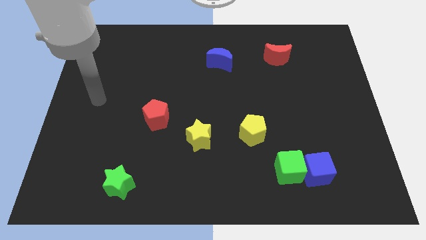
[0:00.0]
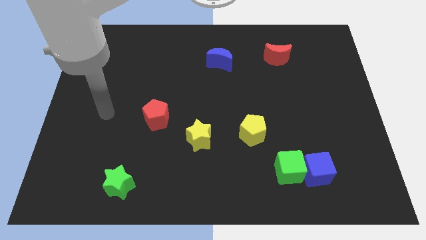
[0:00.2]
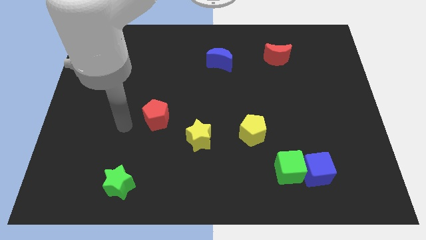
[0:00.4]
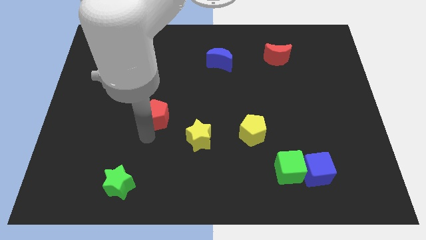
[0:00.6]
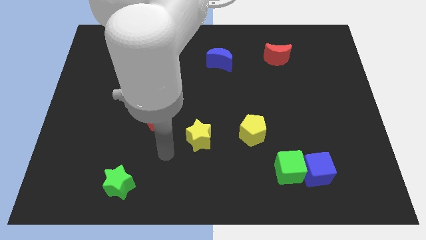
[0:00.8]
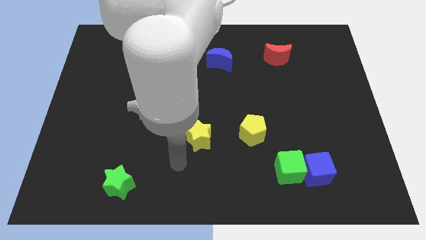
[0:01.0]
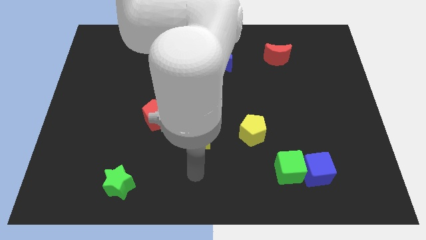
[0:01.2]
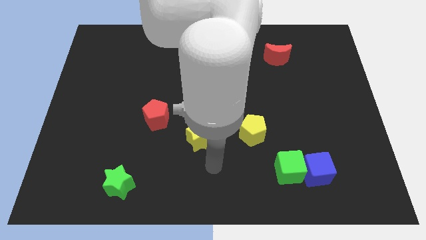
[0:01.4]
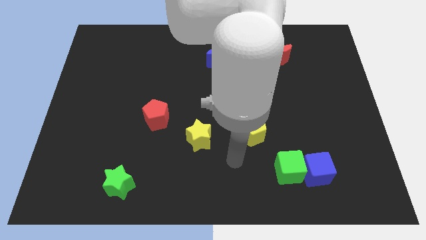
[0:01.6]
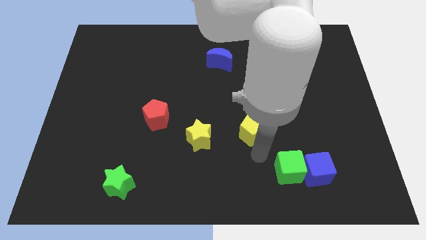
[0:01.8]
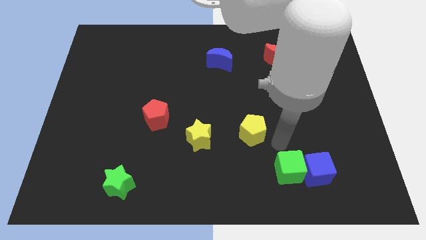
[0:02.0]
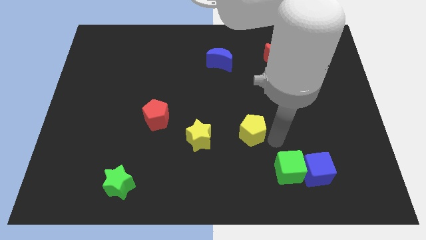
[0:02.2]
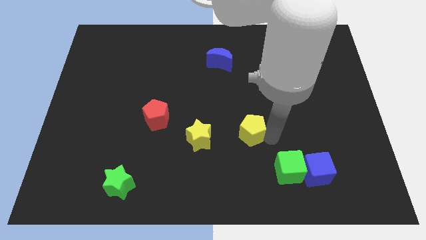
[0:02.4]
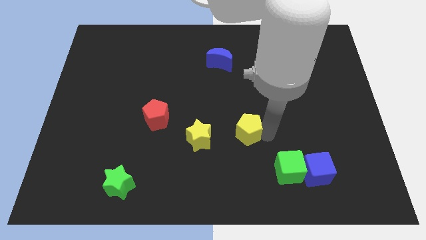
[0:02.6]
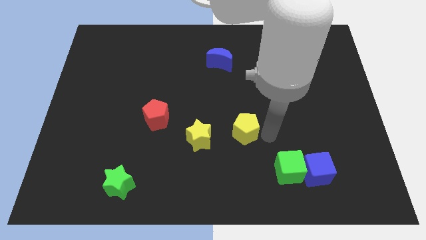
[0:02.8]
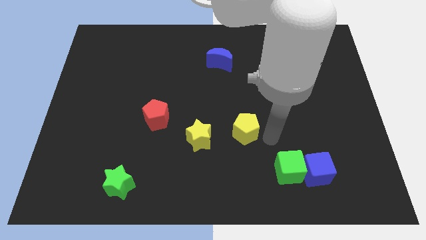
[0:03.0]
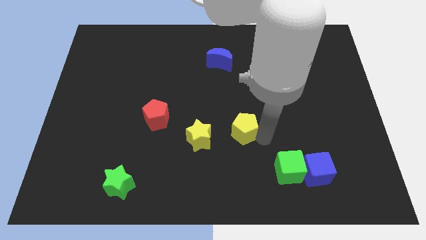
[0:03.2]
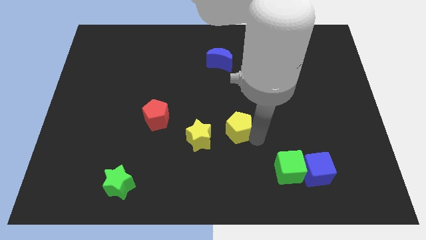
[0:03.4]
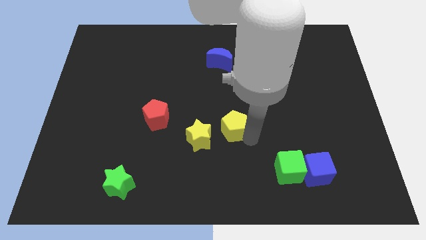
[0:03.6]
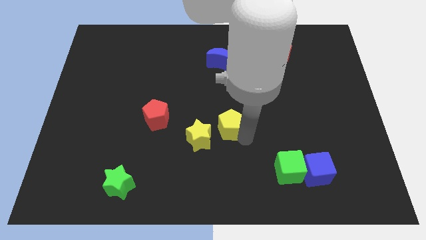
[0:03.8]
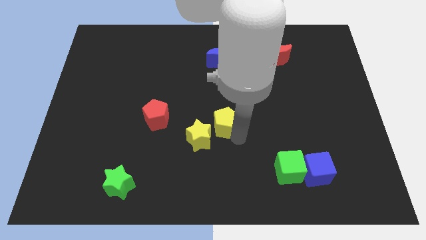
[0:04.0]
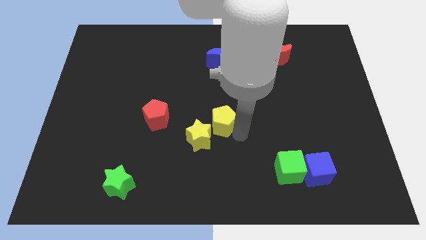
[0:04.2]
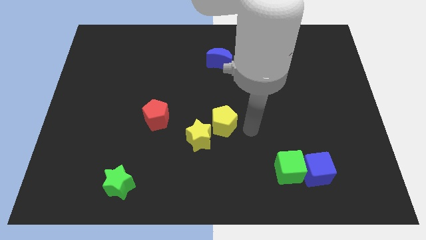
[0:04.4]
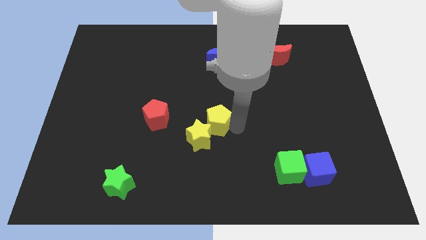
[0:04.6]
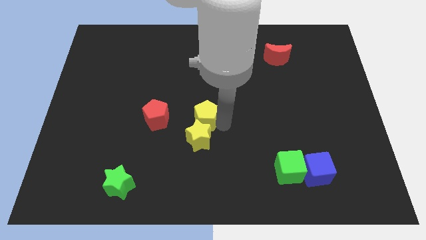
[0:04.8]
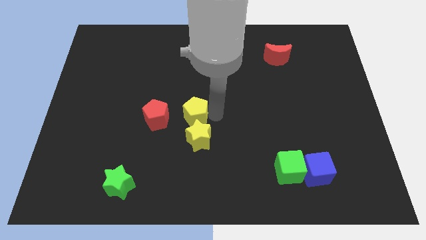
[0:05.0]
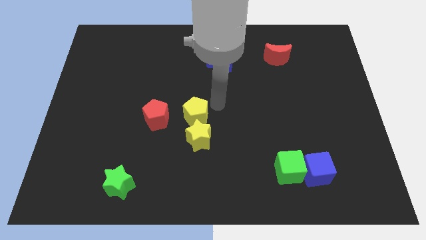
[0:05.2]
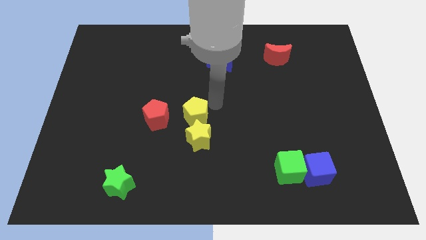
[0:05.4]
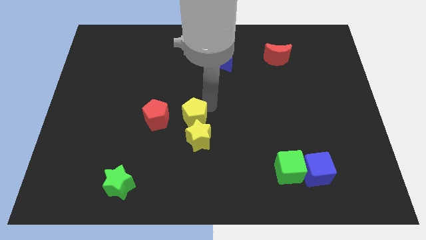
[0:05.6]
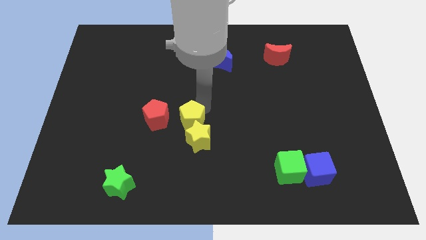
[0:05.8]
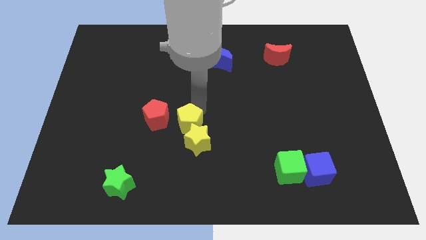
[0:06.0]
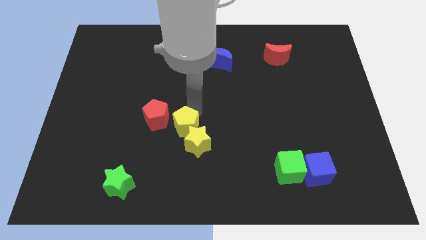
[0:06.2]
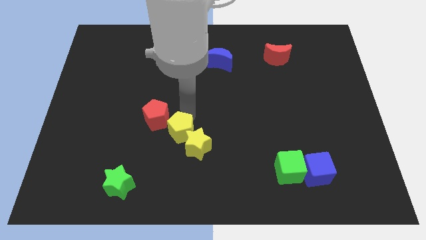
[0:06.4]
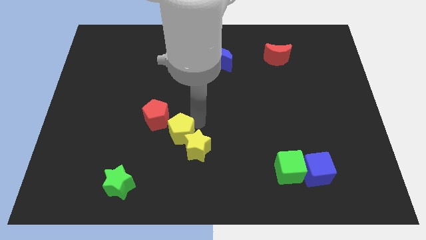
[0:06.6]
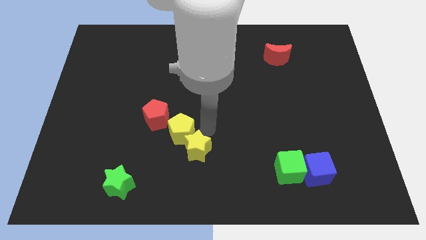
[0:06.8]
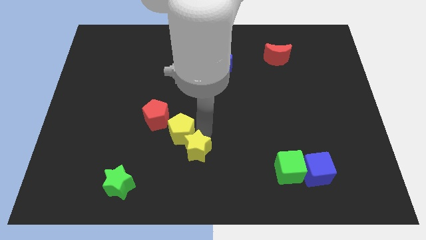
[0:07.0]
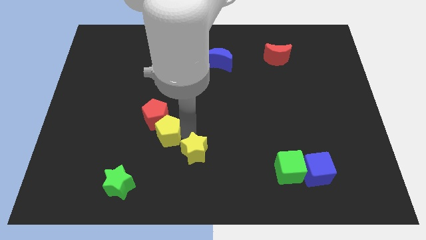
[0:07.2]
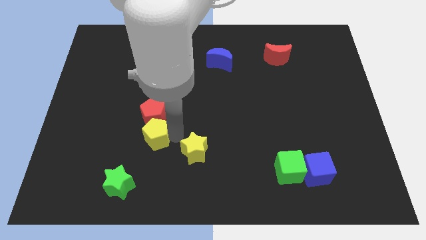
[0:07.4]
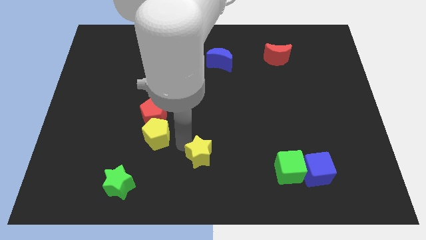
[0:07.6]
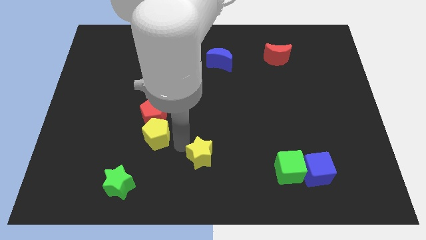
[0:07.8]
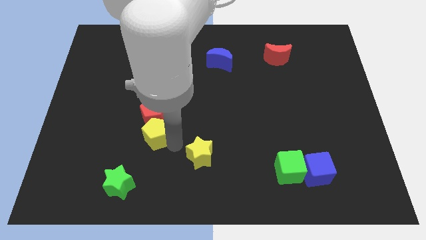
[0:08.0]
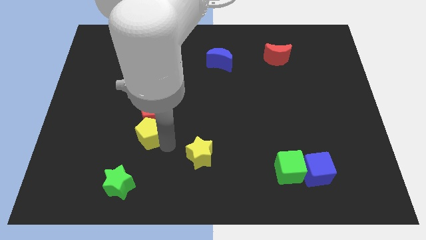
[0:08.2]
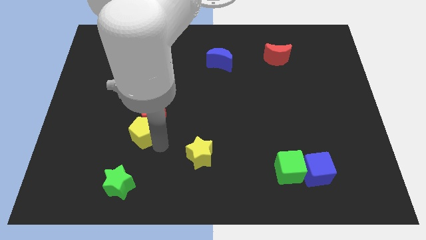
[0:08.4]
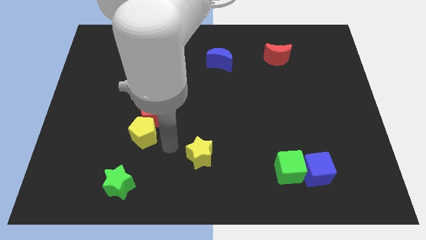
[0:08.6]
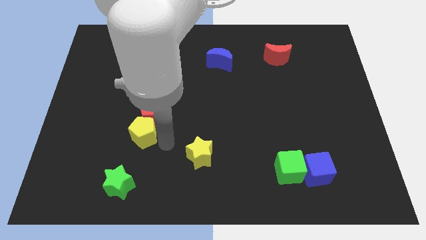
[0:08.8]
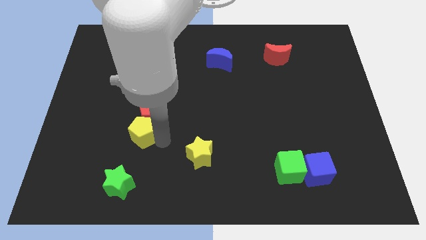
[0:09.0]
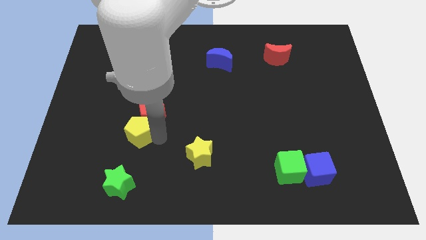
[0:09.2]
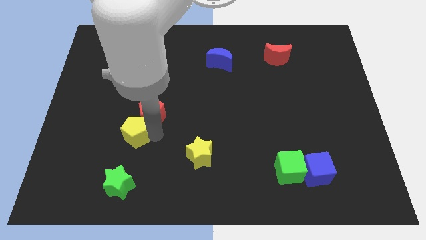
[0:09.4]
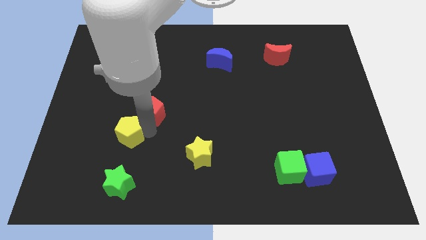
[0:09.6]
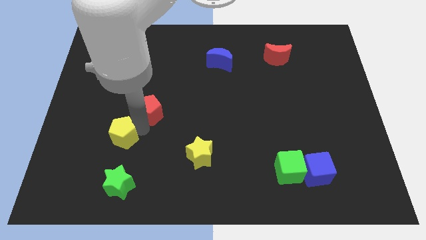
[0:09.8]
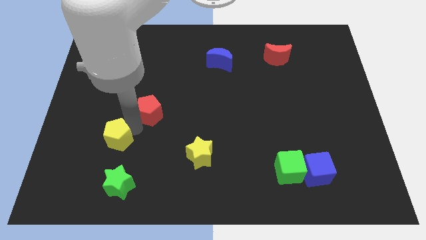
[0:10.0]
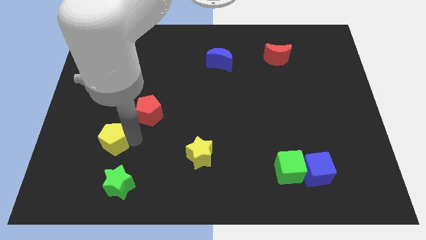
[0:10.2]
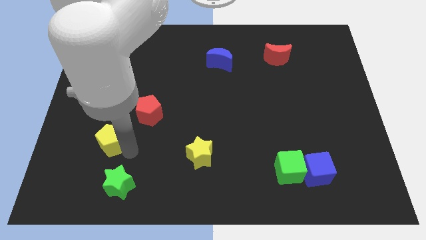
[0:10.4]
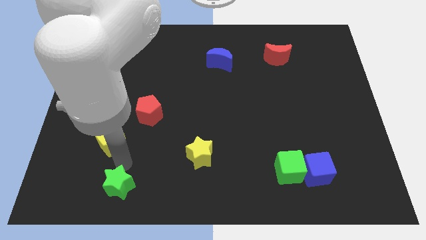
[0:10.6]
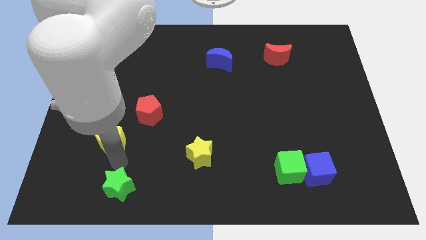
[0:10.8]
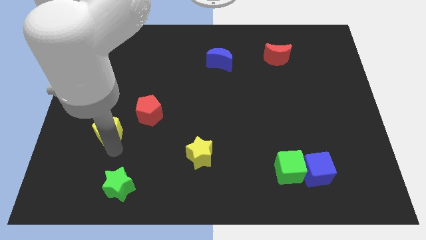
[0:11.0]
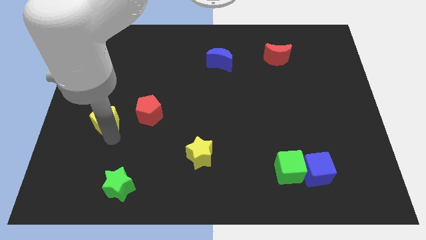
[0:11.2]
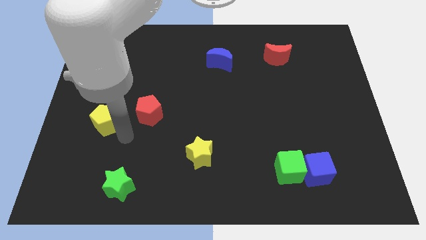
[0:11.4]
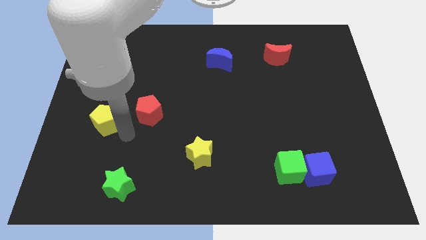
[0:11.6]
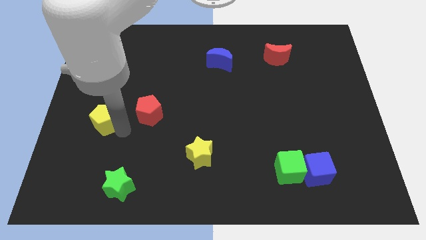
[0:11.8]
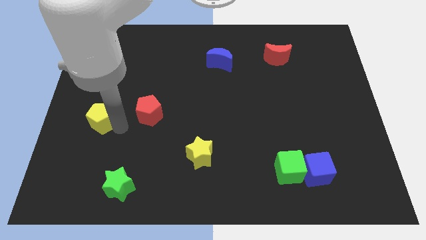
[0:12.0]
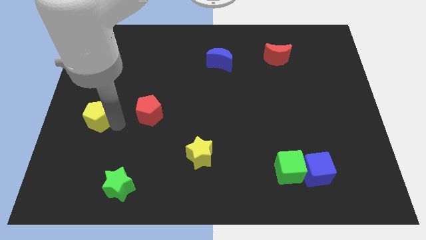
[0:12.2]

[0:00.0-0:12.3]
slide the yellow pentagon to the center left
